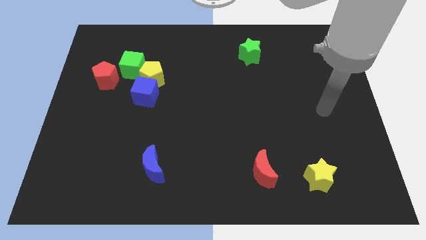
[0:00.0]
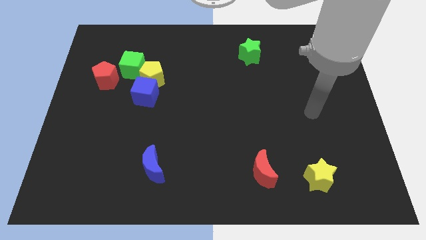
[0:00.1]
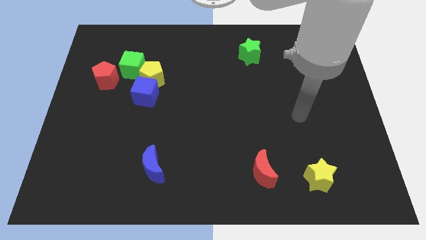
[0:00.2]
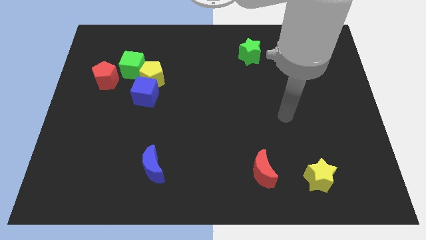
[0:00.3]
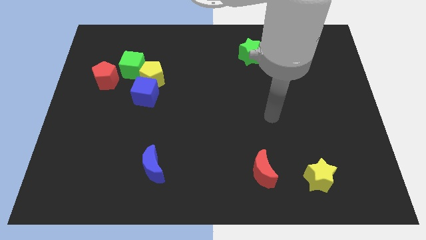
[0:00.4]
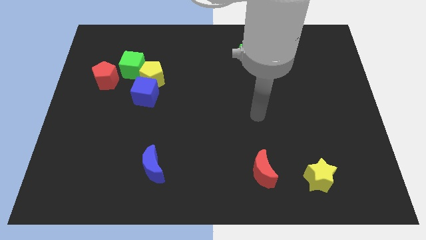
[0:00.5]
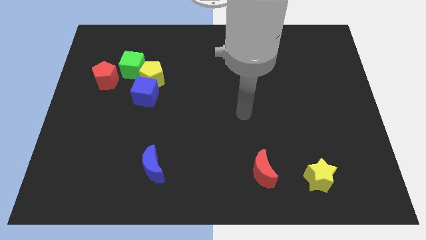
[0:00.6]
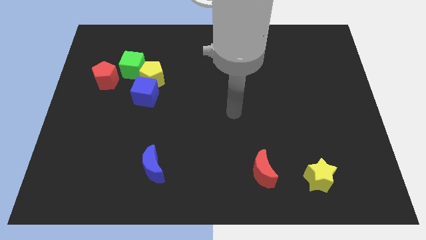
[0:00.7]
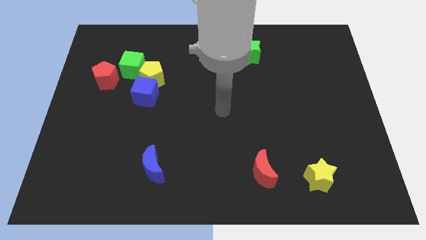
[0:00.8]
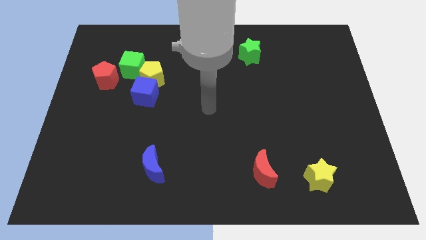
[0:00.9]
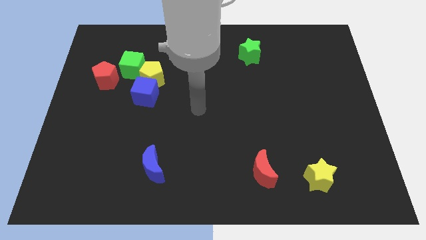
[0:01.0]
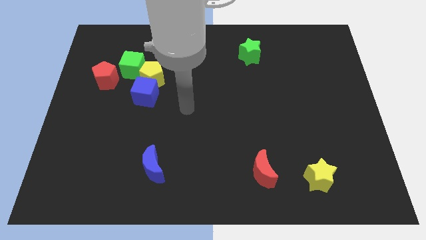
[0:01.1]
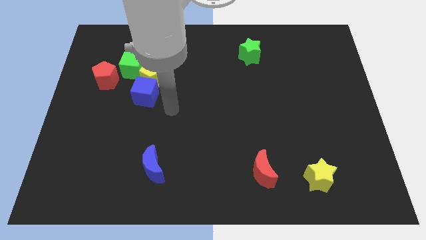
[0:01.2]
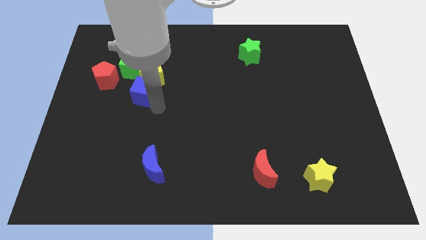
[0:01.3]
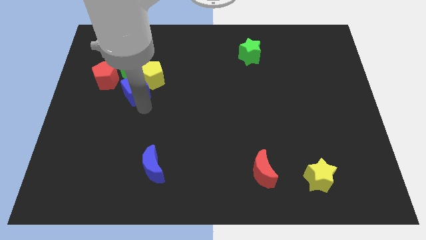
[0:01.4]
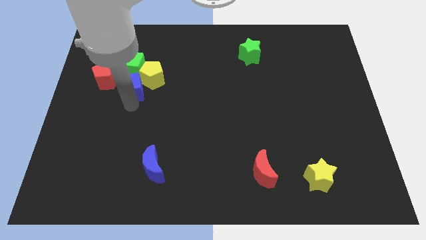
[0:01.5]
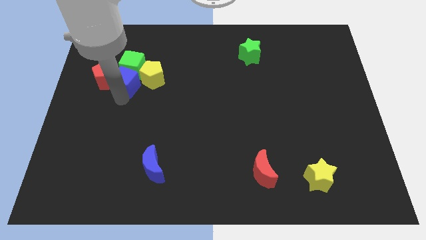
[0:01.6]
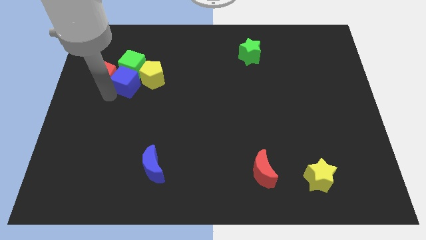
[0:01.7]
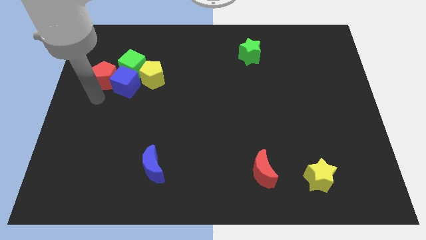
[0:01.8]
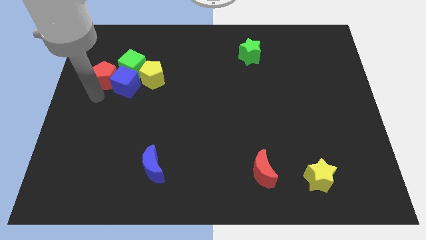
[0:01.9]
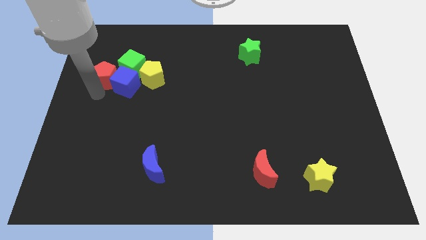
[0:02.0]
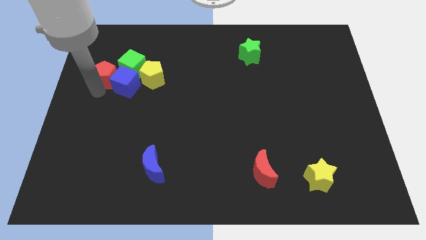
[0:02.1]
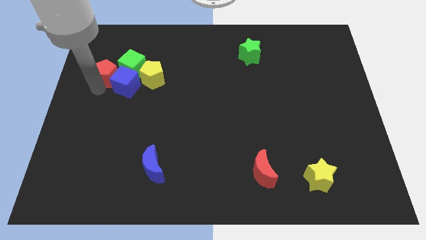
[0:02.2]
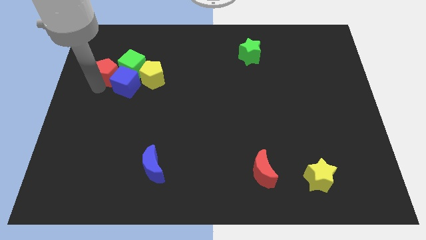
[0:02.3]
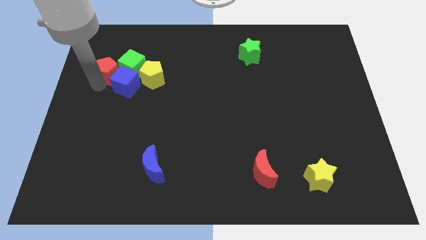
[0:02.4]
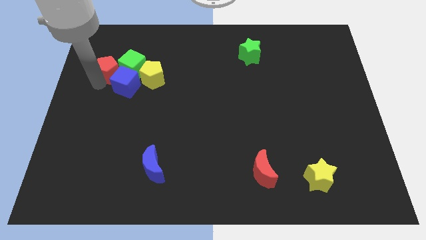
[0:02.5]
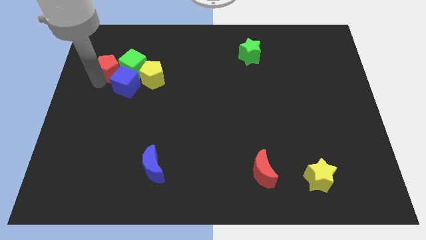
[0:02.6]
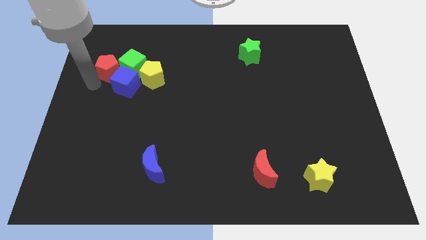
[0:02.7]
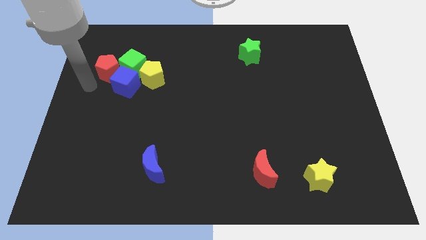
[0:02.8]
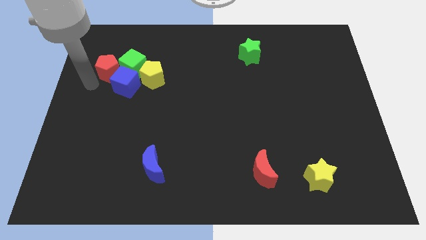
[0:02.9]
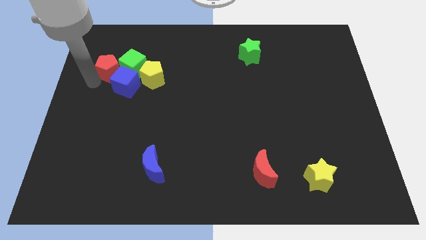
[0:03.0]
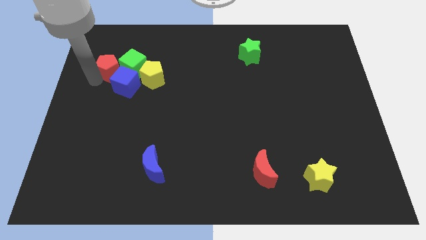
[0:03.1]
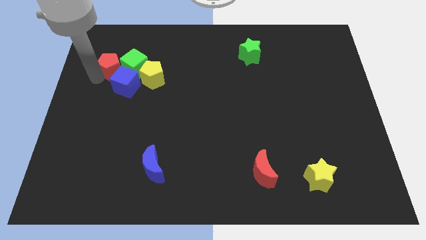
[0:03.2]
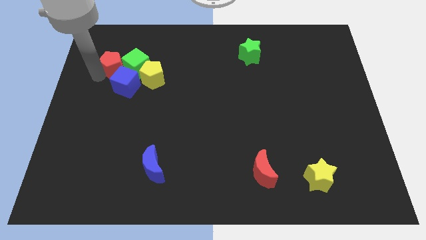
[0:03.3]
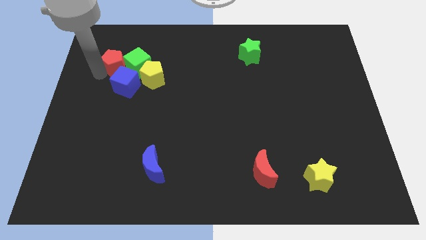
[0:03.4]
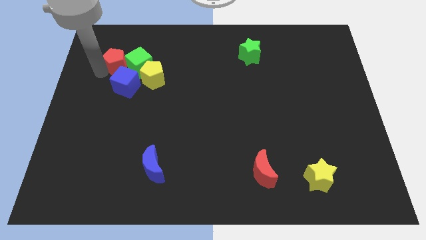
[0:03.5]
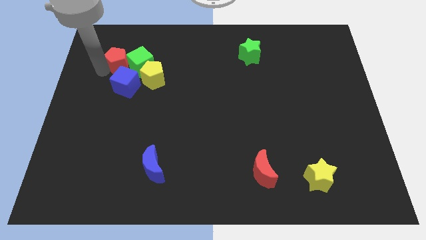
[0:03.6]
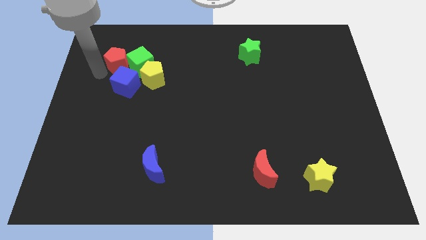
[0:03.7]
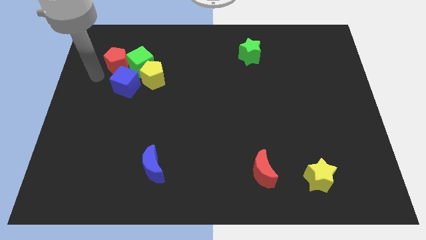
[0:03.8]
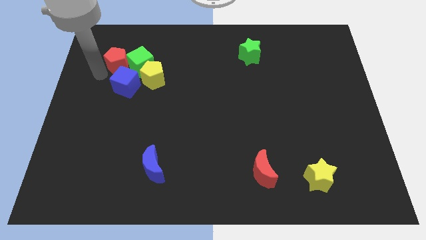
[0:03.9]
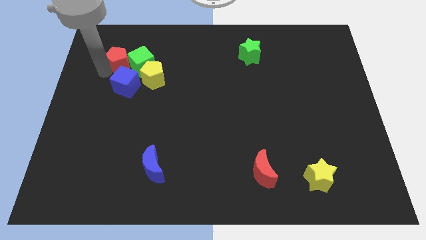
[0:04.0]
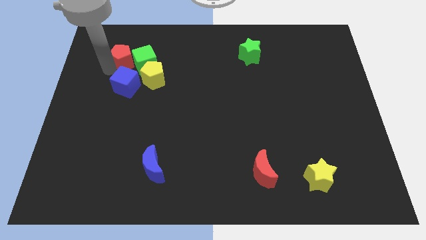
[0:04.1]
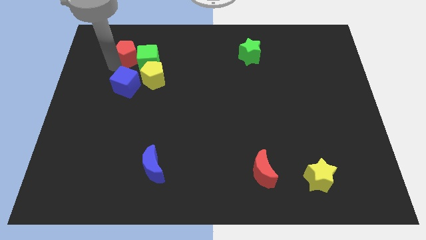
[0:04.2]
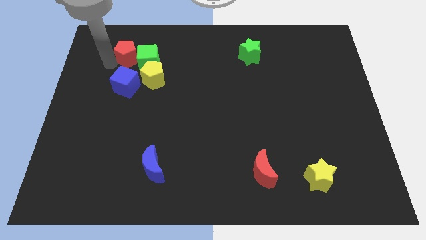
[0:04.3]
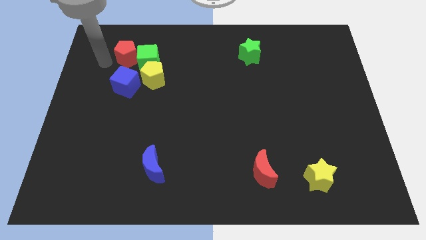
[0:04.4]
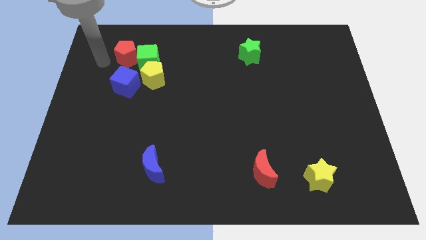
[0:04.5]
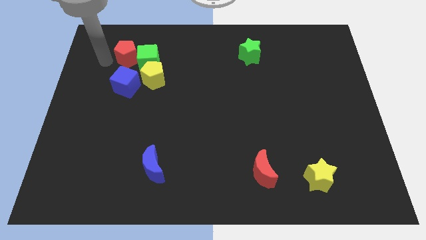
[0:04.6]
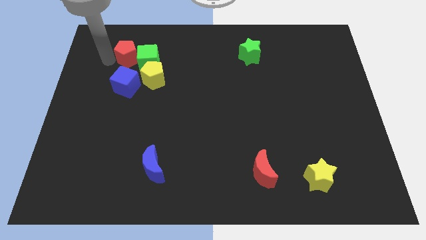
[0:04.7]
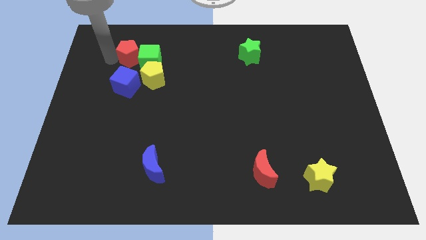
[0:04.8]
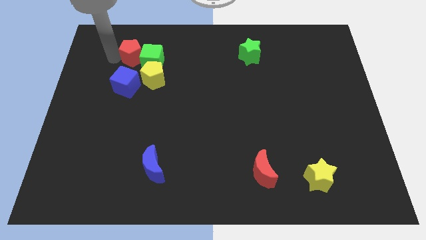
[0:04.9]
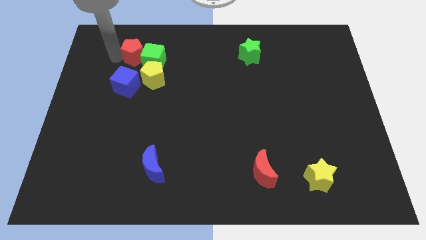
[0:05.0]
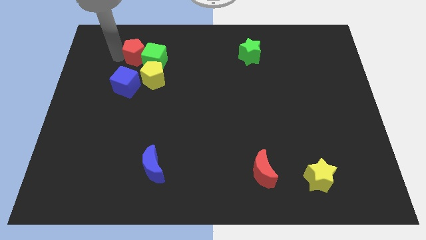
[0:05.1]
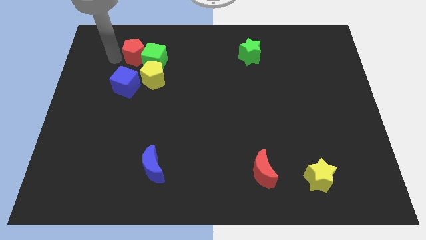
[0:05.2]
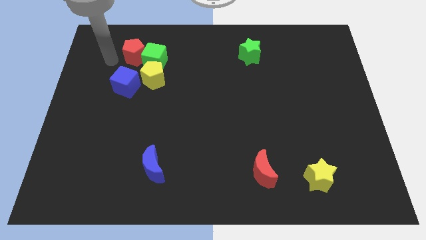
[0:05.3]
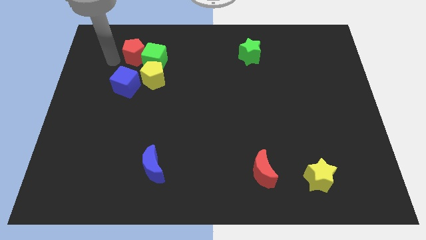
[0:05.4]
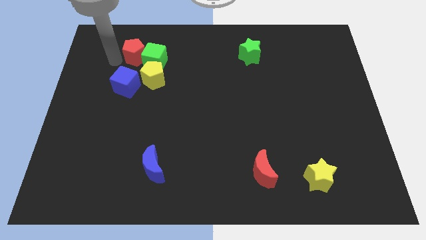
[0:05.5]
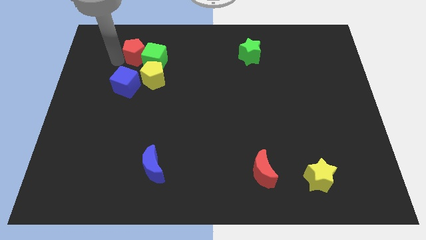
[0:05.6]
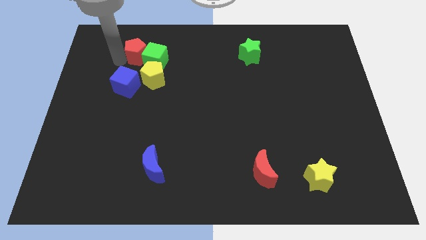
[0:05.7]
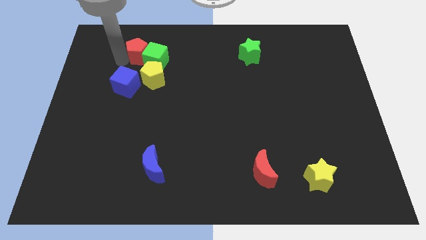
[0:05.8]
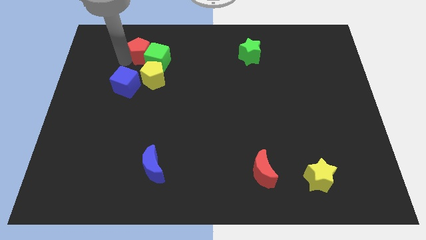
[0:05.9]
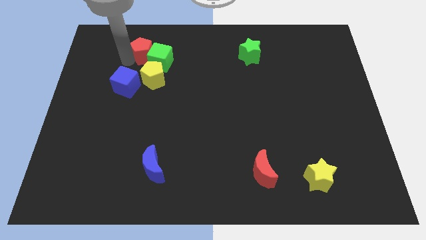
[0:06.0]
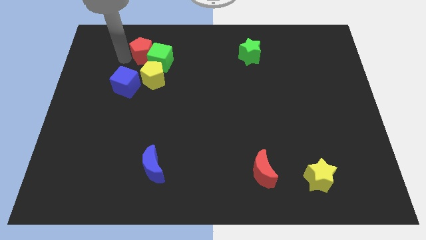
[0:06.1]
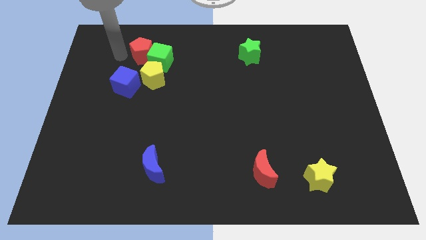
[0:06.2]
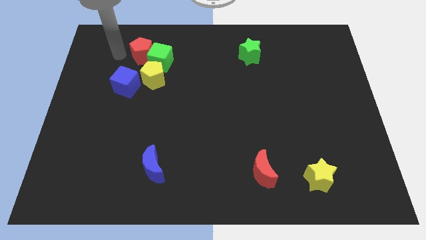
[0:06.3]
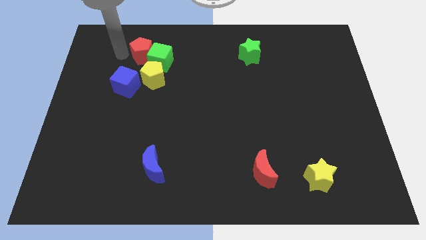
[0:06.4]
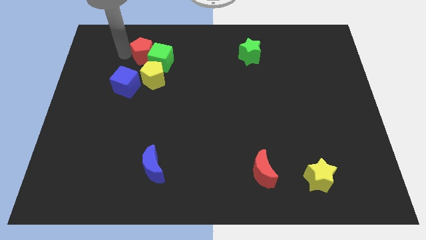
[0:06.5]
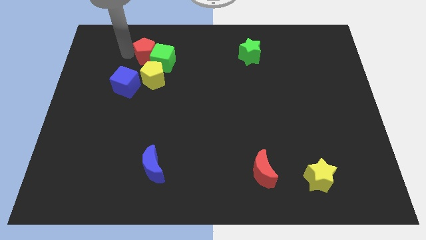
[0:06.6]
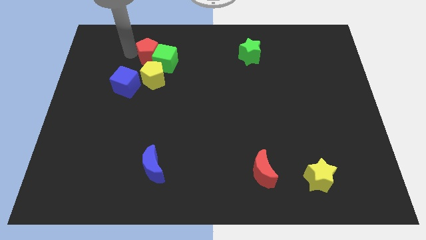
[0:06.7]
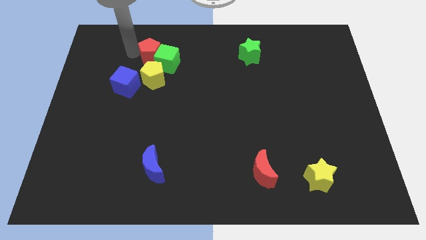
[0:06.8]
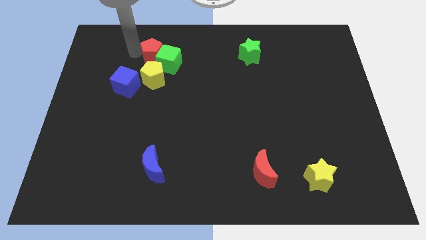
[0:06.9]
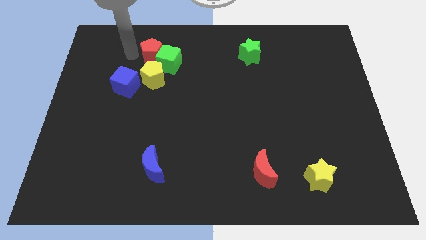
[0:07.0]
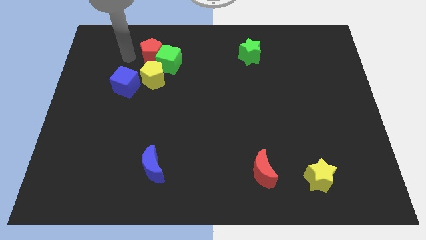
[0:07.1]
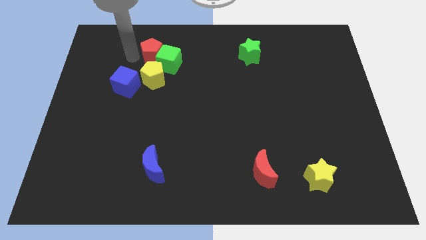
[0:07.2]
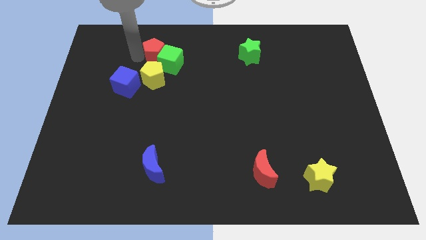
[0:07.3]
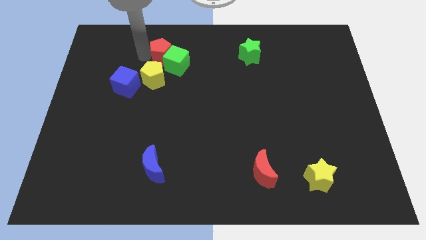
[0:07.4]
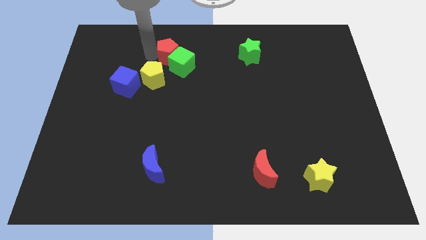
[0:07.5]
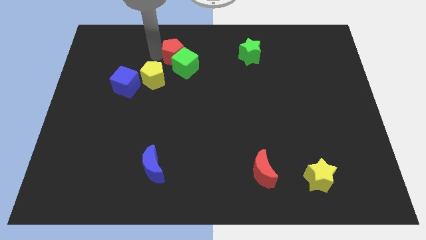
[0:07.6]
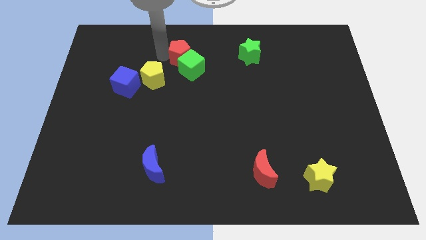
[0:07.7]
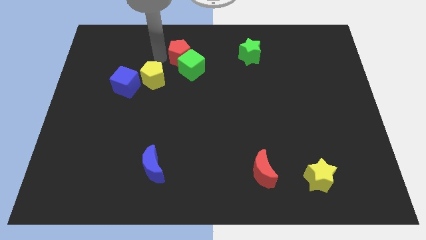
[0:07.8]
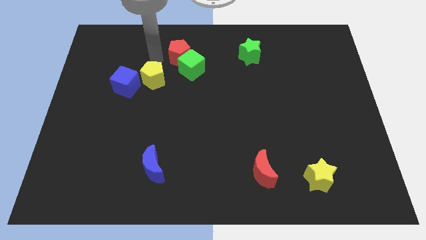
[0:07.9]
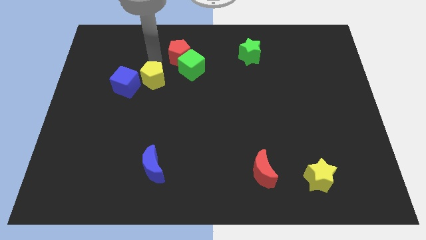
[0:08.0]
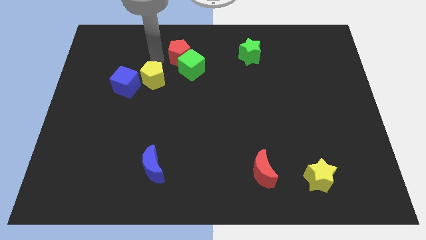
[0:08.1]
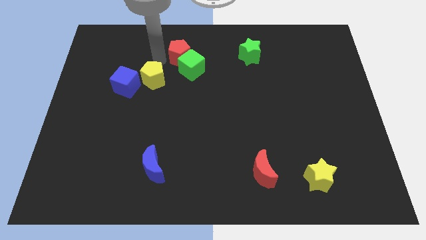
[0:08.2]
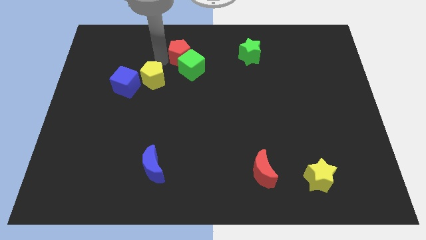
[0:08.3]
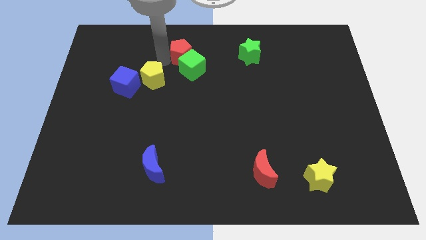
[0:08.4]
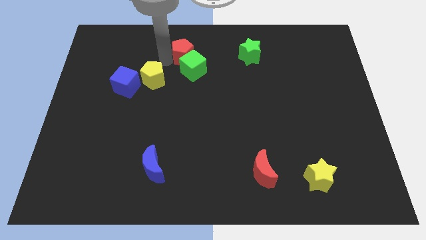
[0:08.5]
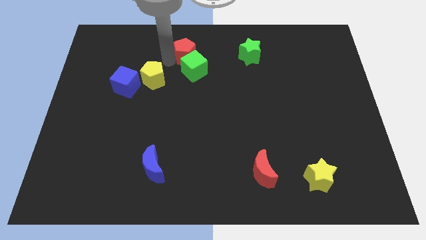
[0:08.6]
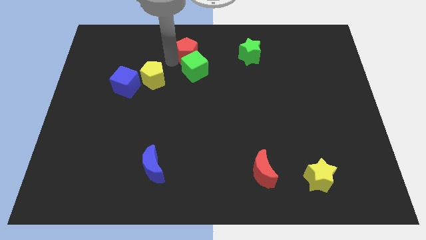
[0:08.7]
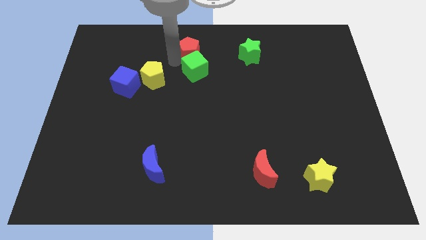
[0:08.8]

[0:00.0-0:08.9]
slide the red pentagon left of the green star
